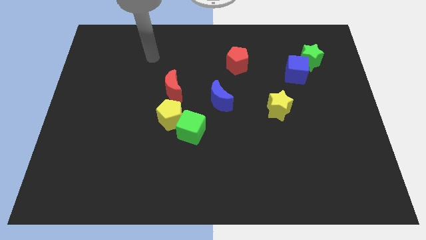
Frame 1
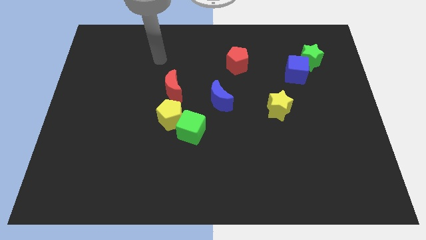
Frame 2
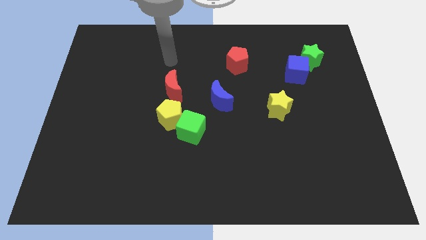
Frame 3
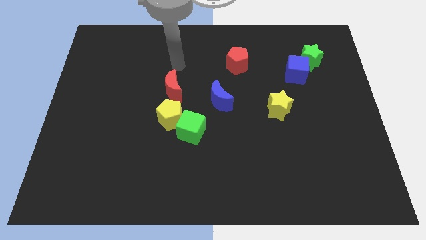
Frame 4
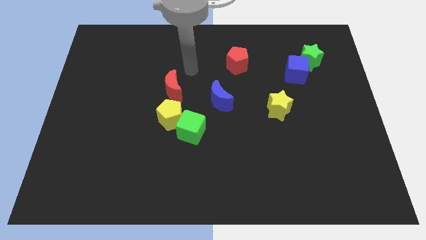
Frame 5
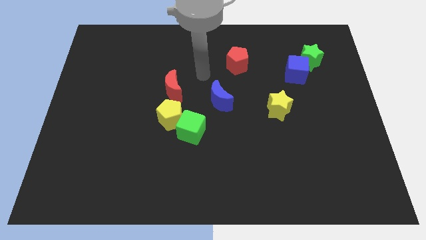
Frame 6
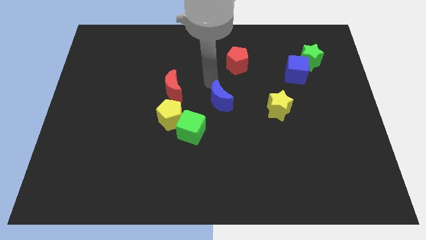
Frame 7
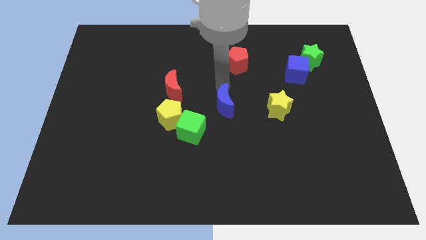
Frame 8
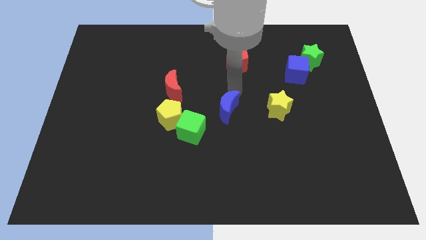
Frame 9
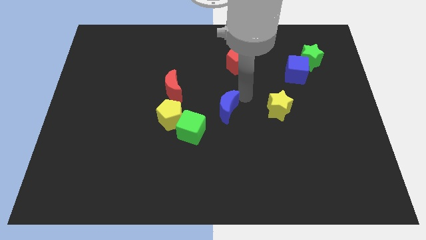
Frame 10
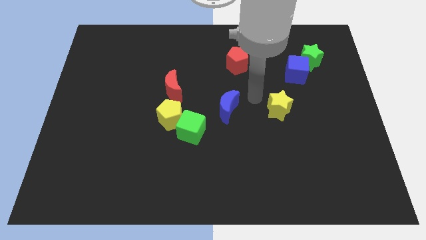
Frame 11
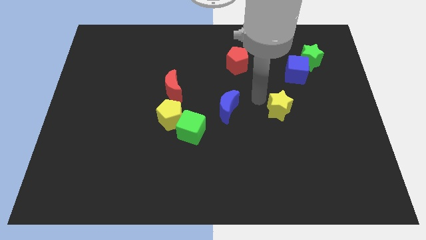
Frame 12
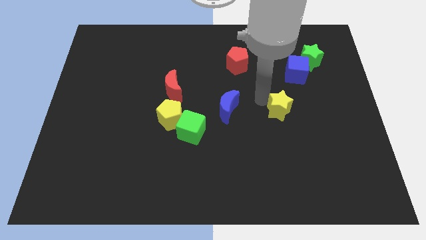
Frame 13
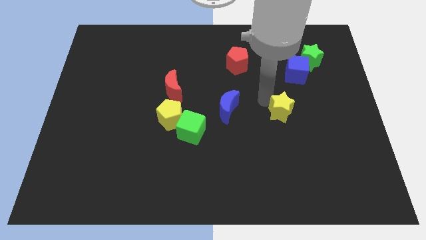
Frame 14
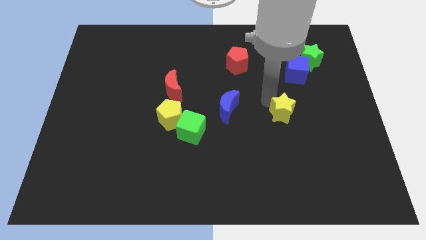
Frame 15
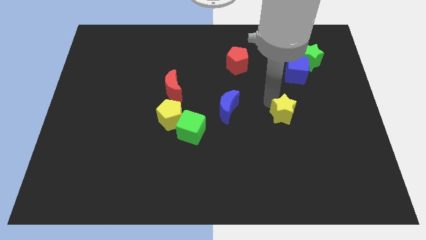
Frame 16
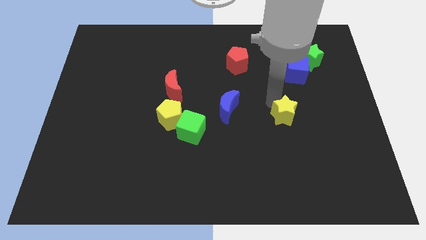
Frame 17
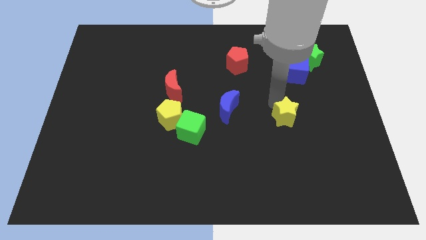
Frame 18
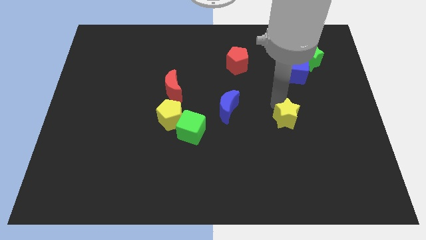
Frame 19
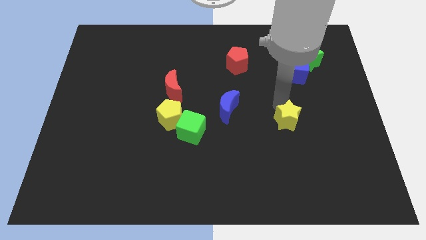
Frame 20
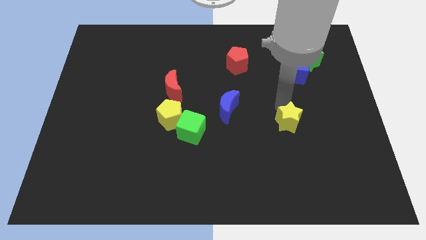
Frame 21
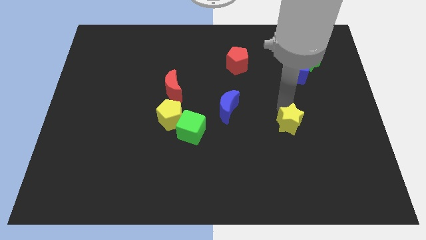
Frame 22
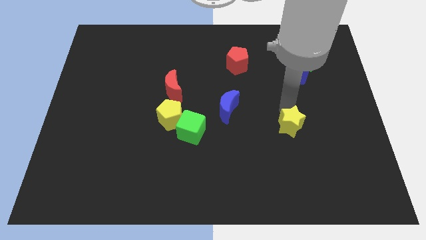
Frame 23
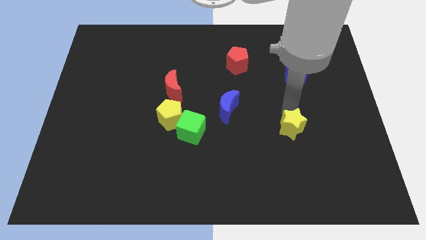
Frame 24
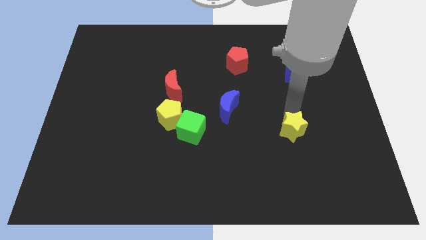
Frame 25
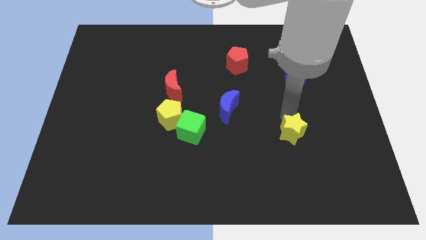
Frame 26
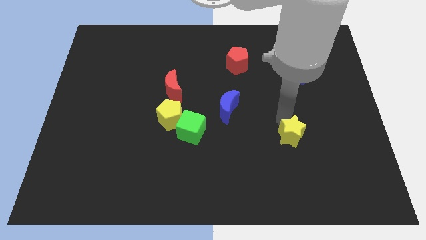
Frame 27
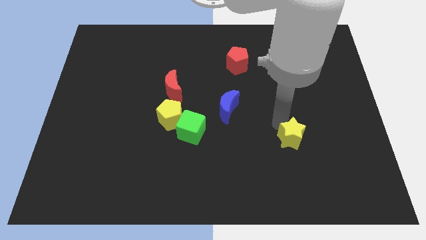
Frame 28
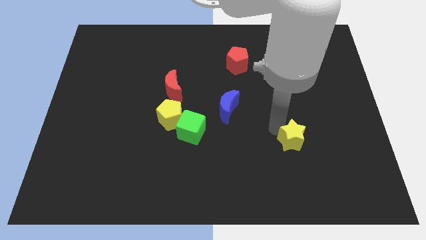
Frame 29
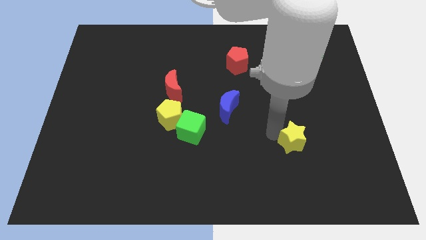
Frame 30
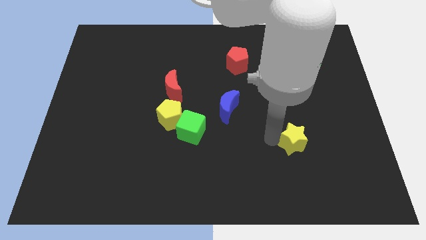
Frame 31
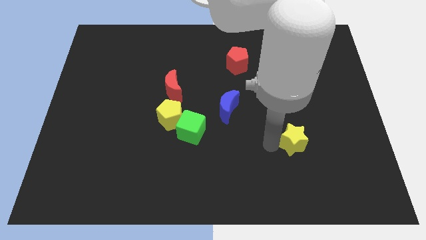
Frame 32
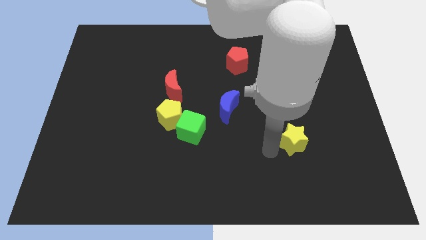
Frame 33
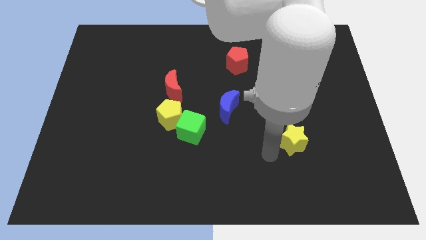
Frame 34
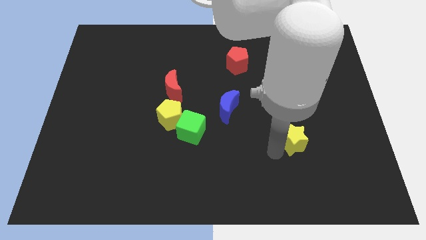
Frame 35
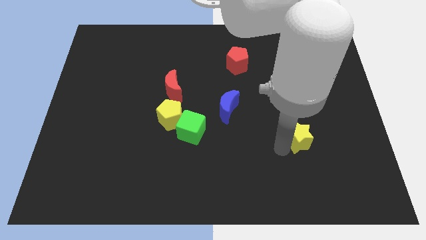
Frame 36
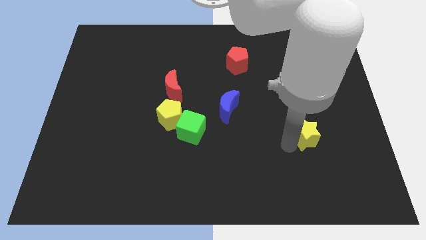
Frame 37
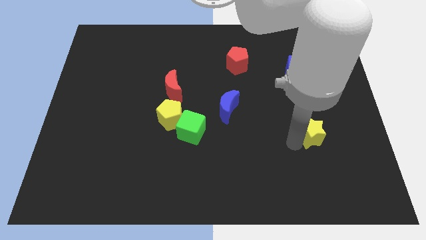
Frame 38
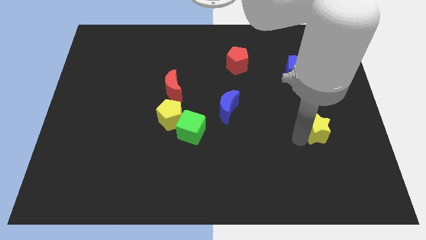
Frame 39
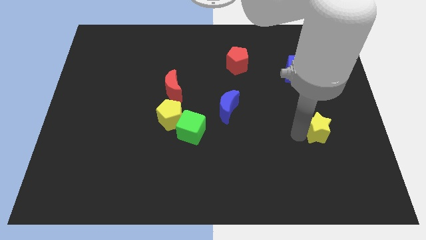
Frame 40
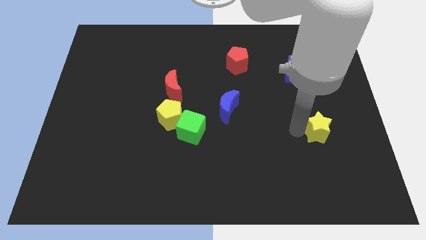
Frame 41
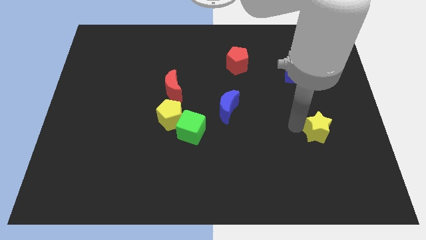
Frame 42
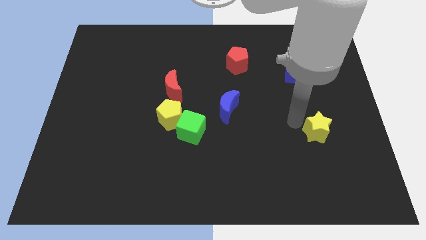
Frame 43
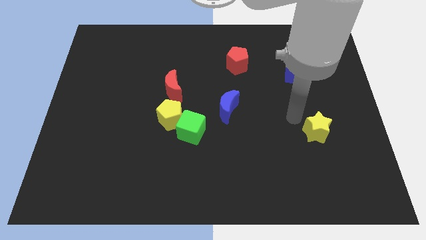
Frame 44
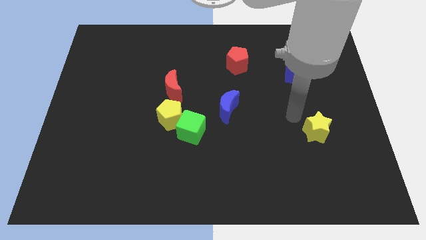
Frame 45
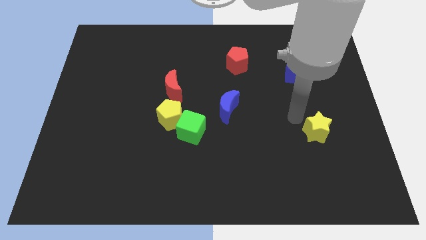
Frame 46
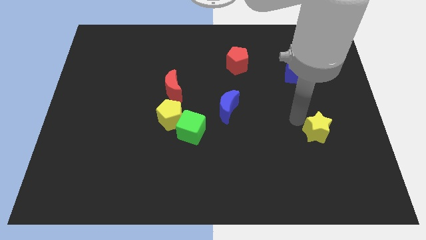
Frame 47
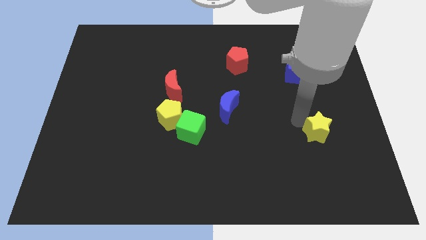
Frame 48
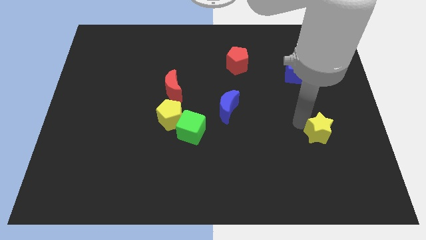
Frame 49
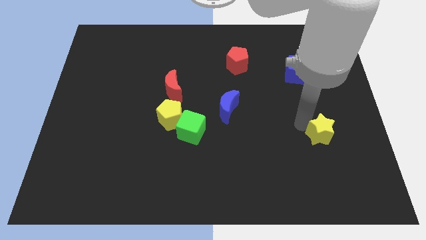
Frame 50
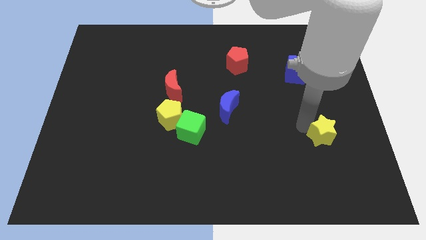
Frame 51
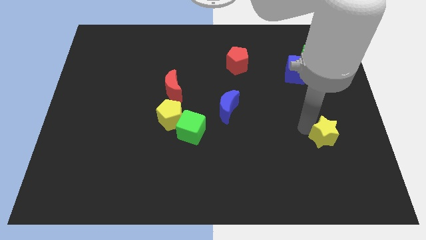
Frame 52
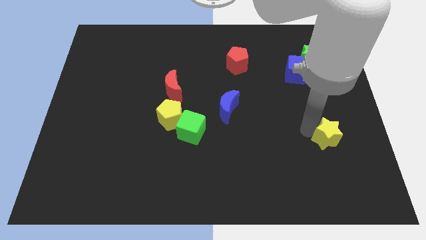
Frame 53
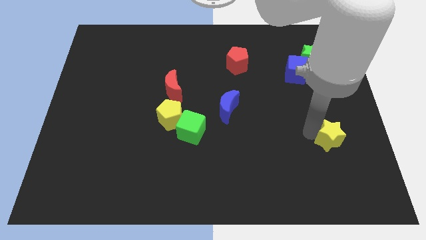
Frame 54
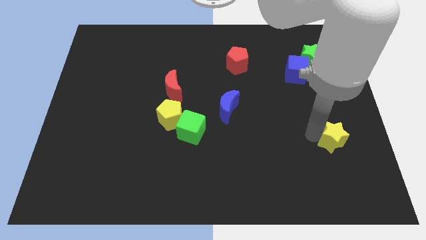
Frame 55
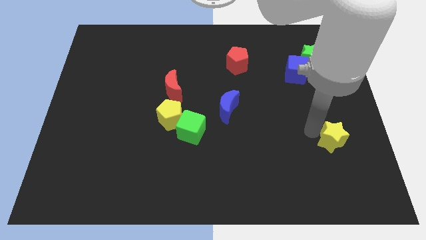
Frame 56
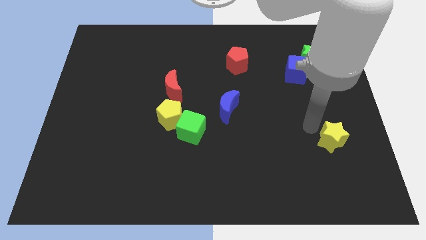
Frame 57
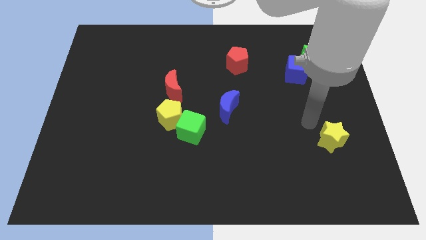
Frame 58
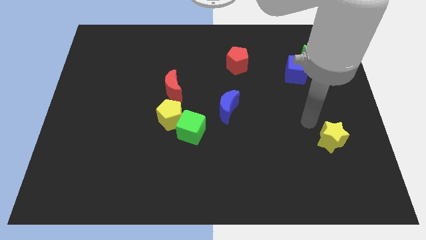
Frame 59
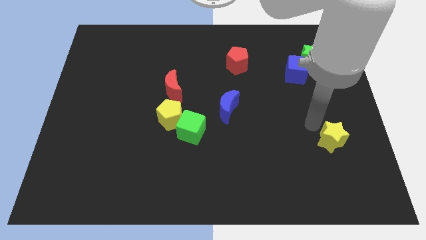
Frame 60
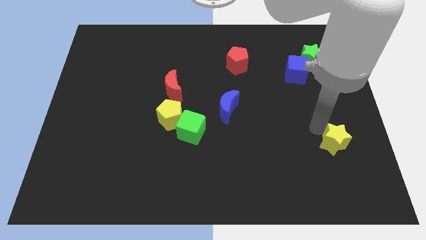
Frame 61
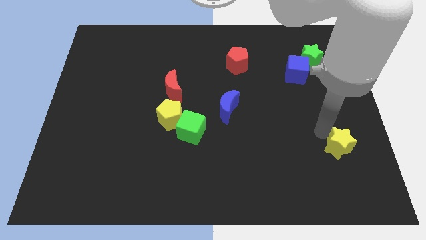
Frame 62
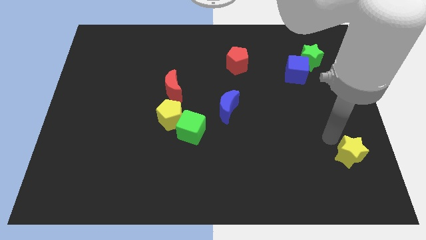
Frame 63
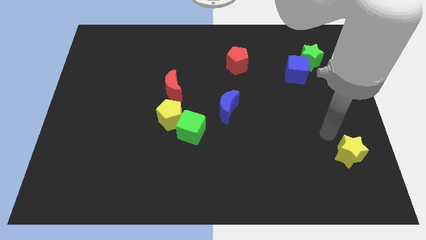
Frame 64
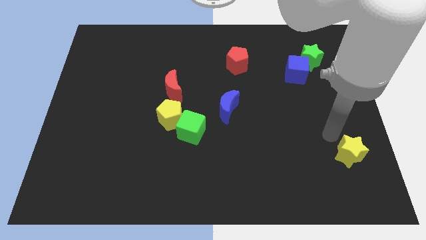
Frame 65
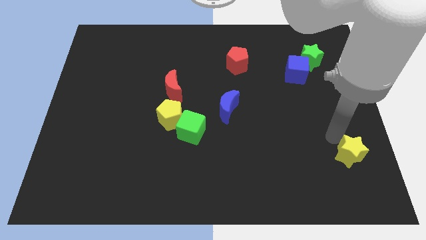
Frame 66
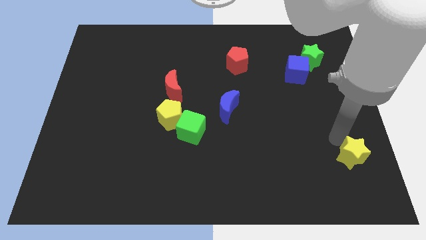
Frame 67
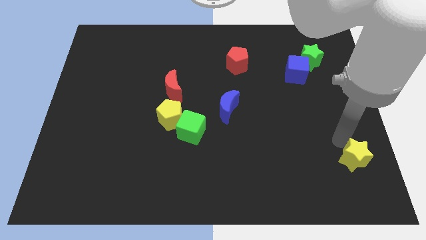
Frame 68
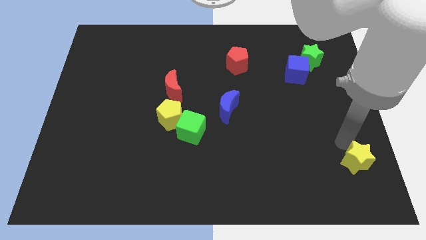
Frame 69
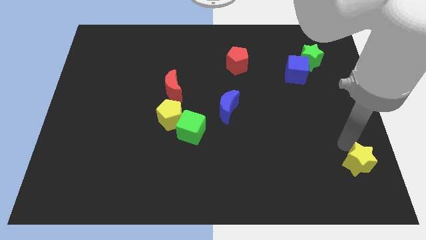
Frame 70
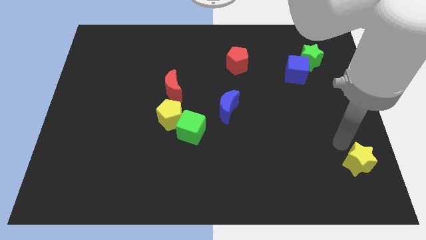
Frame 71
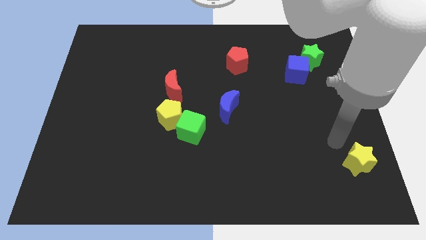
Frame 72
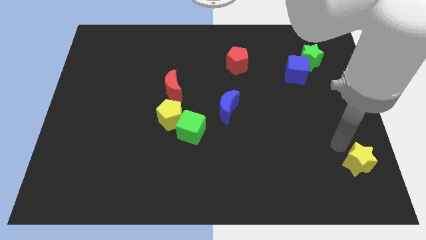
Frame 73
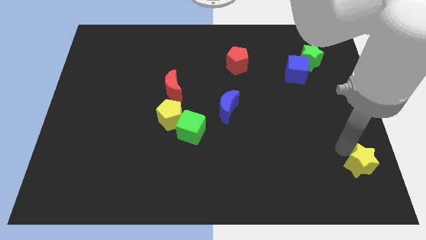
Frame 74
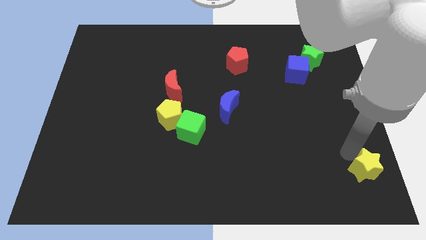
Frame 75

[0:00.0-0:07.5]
put the yellow star to the bottom right
